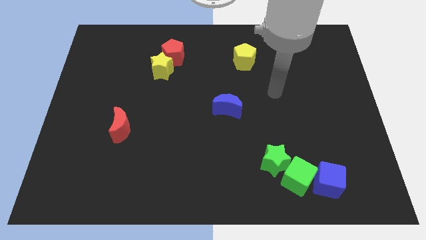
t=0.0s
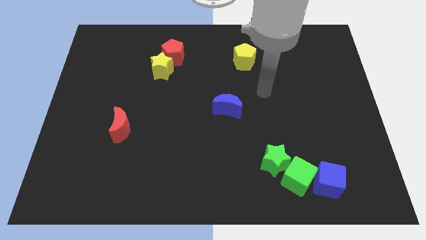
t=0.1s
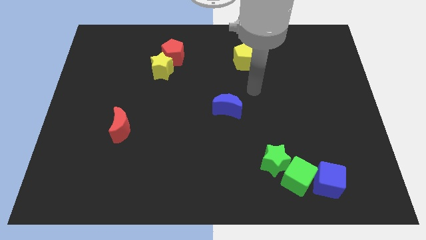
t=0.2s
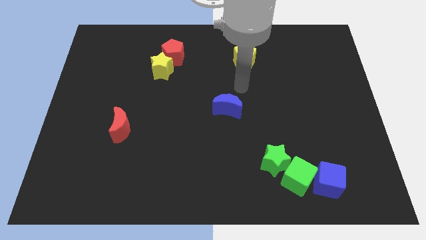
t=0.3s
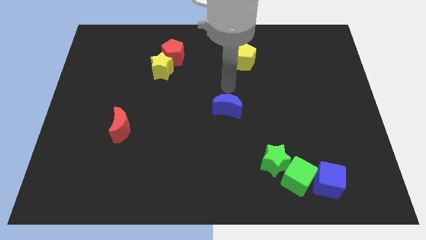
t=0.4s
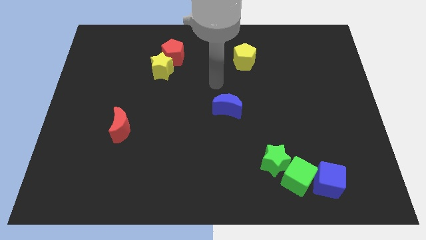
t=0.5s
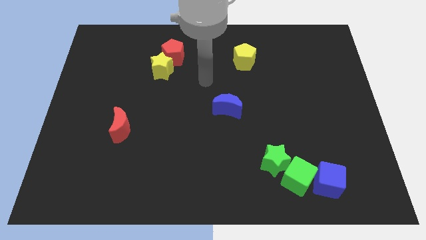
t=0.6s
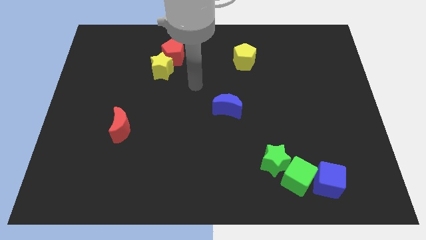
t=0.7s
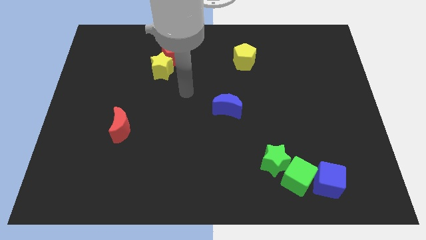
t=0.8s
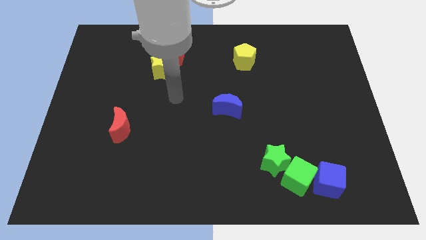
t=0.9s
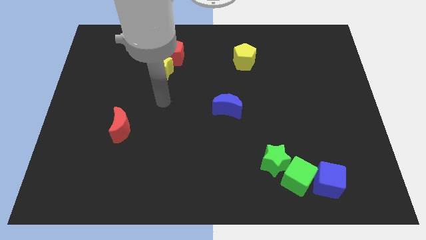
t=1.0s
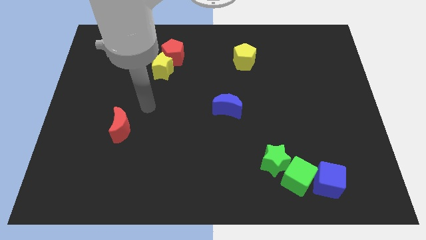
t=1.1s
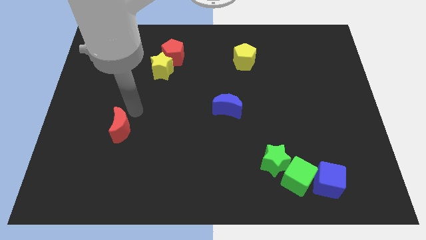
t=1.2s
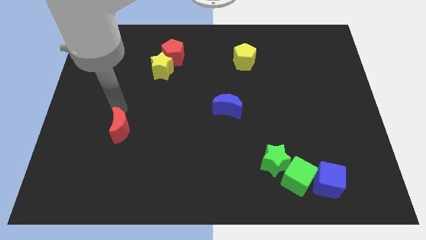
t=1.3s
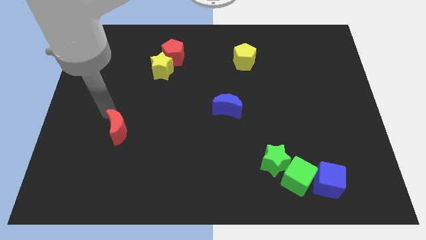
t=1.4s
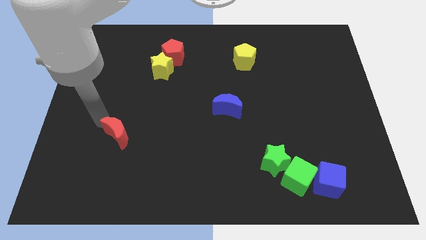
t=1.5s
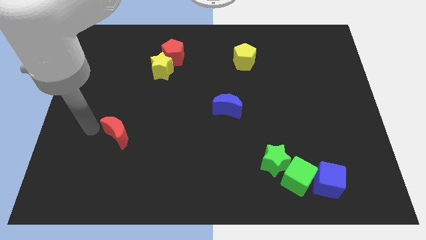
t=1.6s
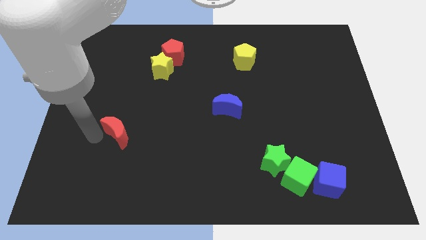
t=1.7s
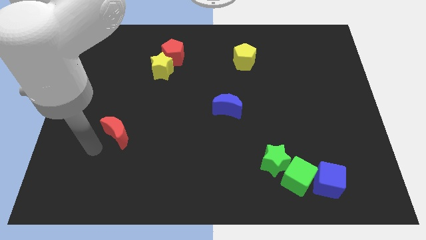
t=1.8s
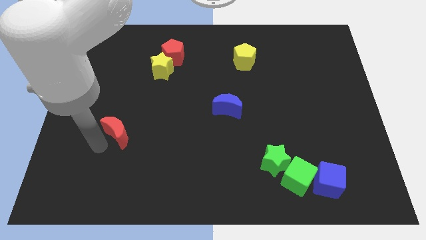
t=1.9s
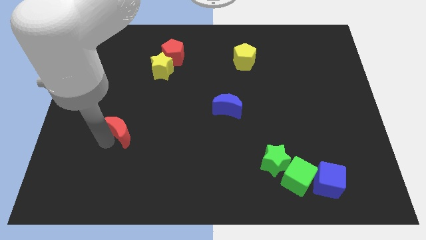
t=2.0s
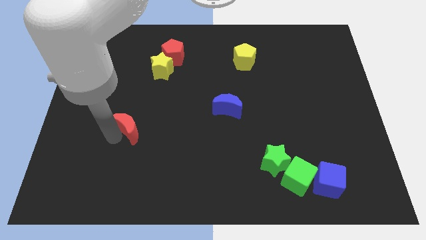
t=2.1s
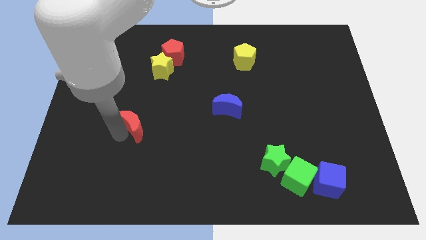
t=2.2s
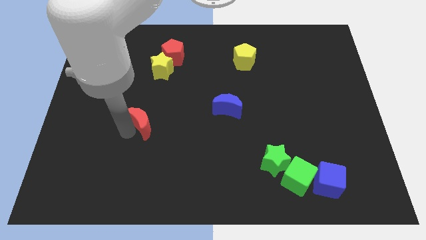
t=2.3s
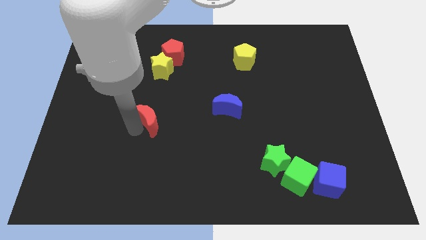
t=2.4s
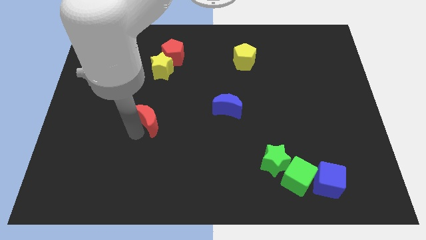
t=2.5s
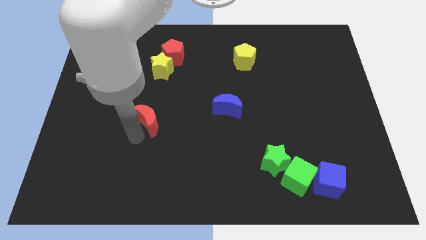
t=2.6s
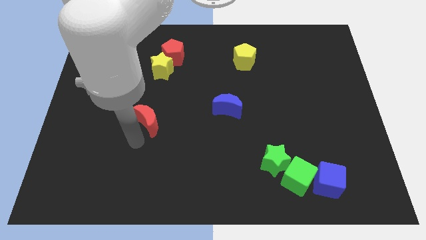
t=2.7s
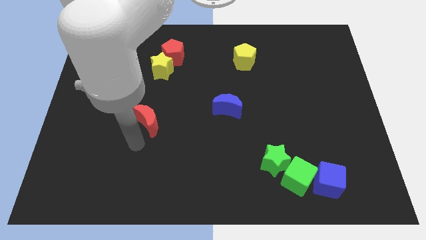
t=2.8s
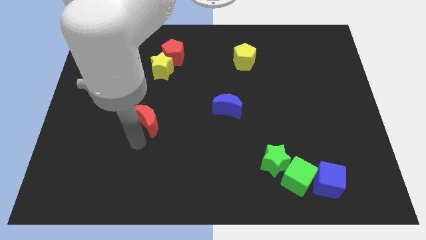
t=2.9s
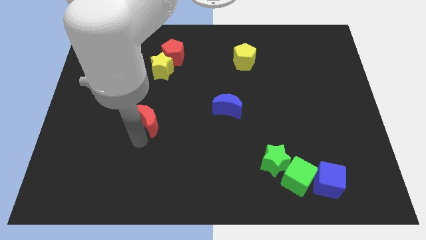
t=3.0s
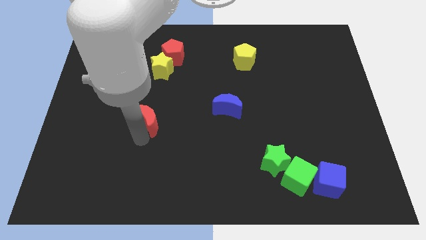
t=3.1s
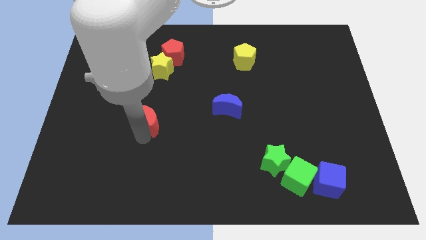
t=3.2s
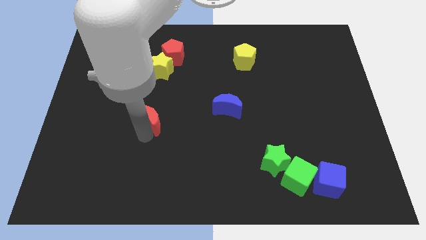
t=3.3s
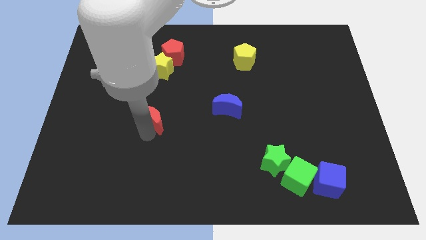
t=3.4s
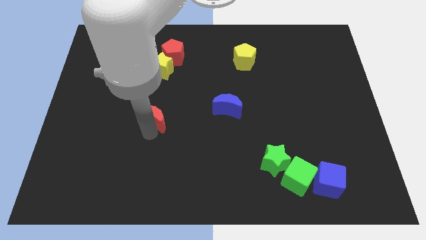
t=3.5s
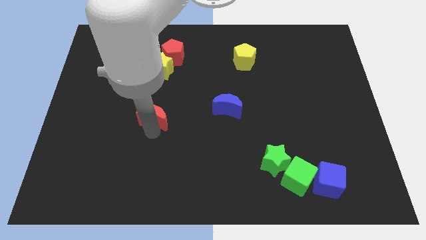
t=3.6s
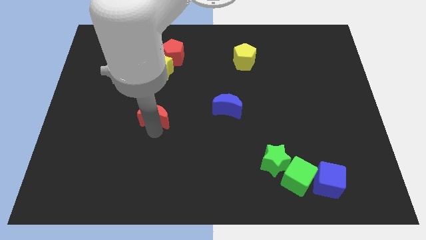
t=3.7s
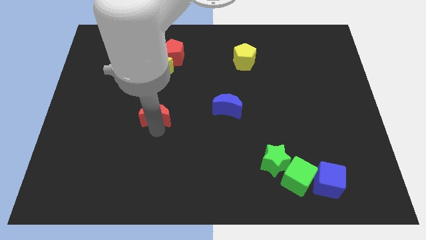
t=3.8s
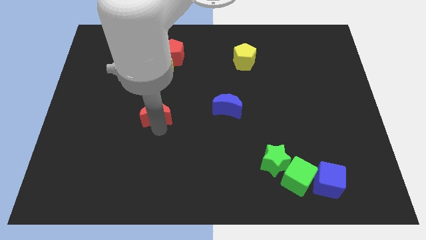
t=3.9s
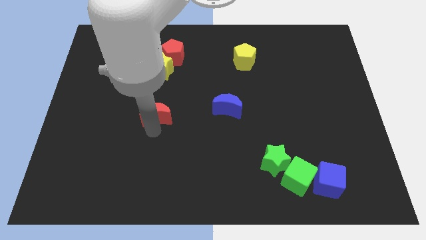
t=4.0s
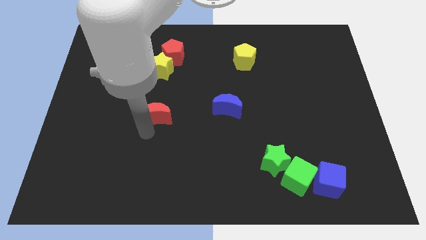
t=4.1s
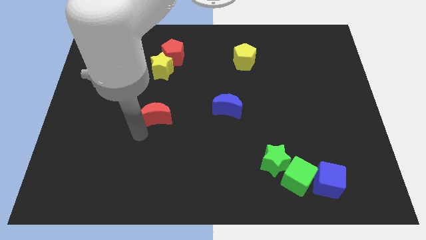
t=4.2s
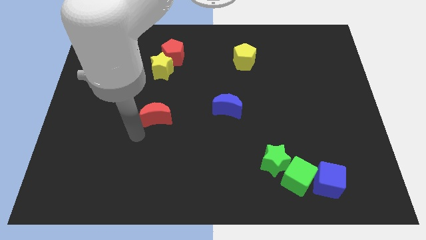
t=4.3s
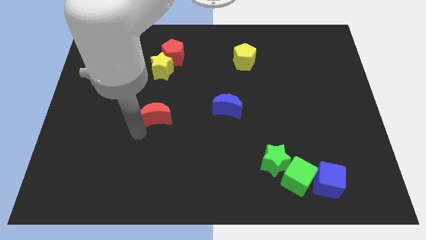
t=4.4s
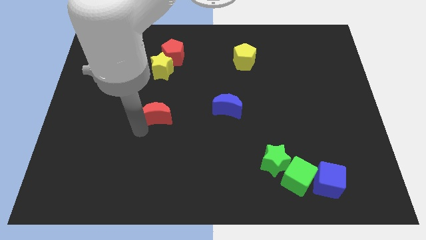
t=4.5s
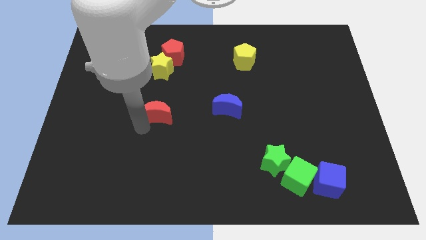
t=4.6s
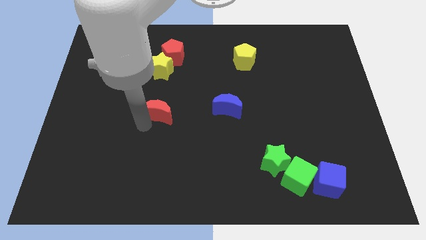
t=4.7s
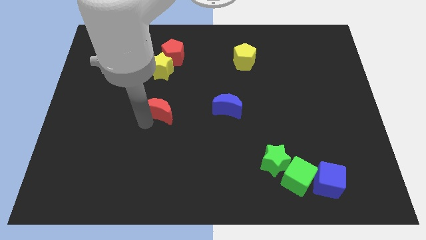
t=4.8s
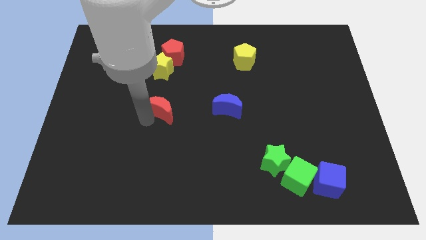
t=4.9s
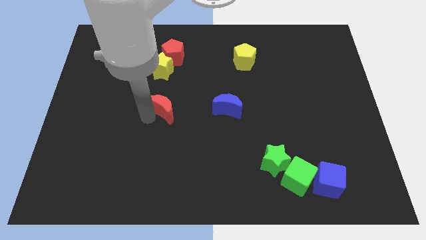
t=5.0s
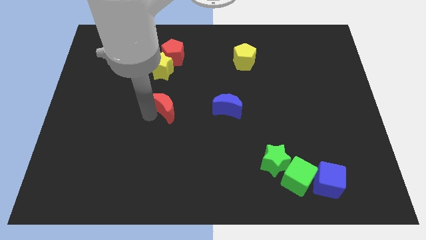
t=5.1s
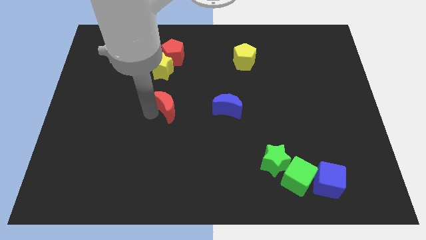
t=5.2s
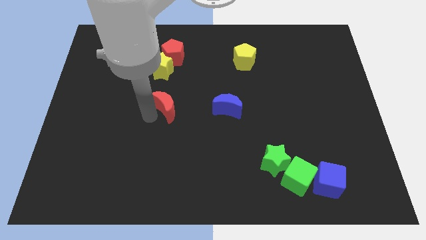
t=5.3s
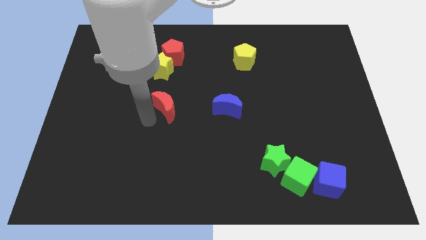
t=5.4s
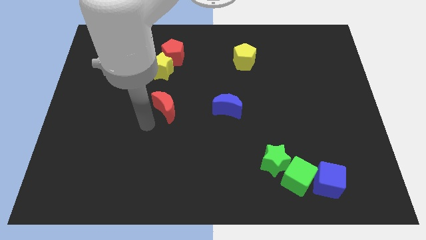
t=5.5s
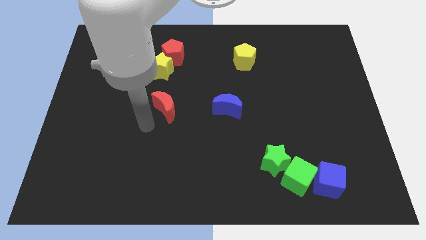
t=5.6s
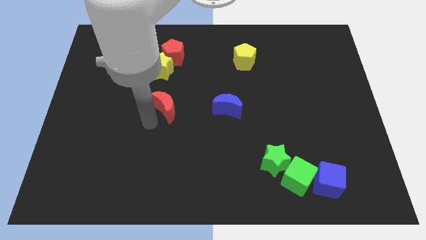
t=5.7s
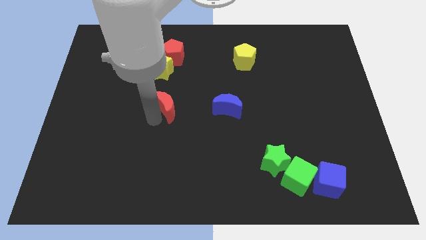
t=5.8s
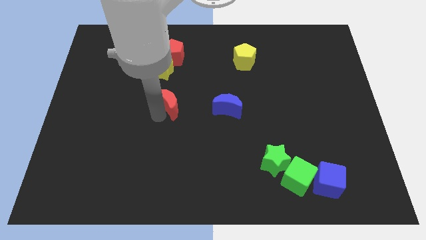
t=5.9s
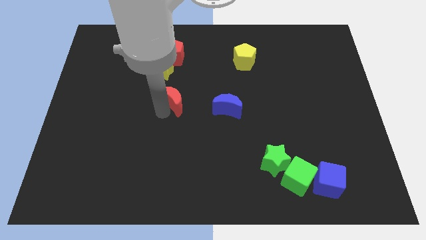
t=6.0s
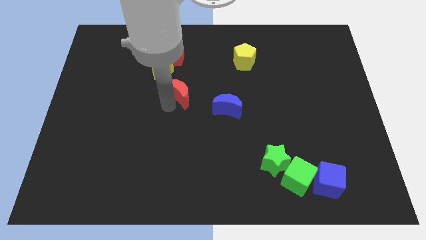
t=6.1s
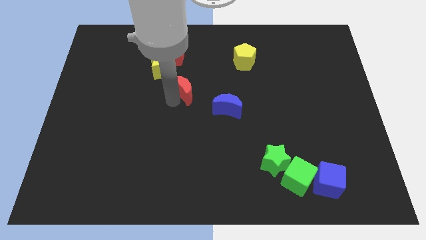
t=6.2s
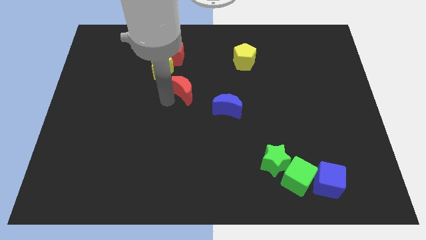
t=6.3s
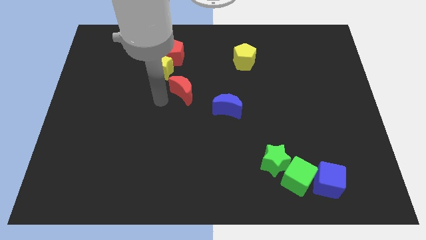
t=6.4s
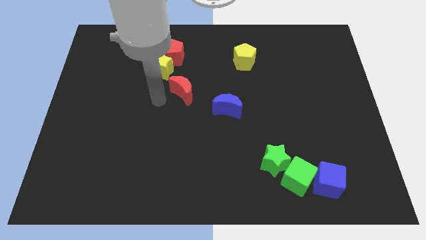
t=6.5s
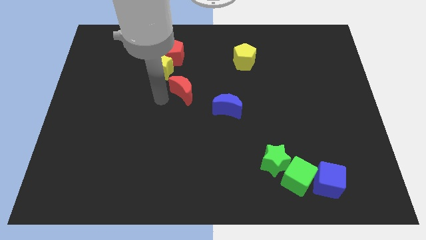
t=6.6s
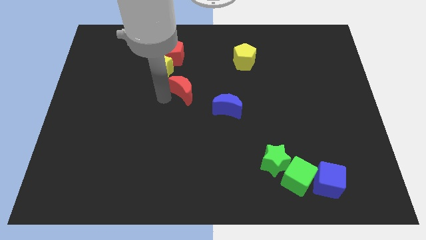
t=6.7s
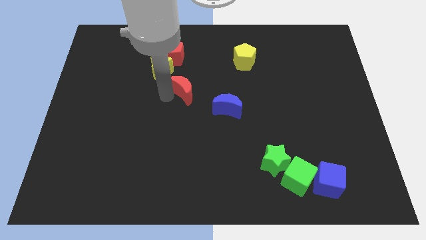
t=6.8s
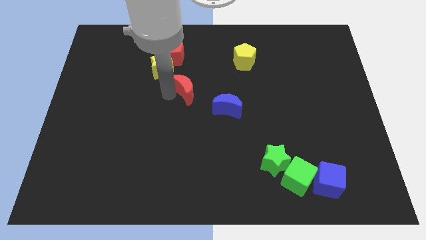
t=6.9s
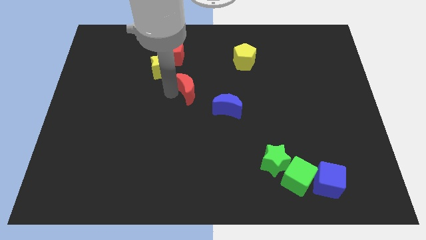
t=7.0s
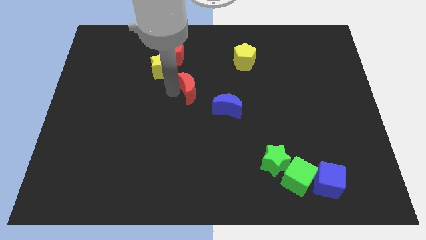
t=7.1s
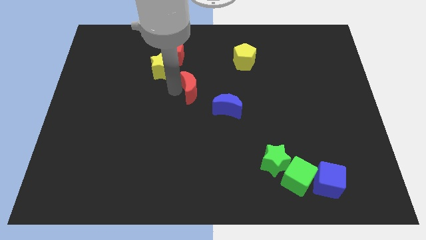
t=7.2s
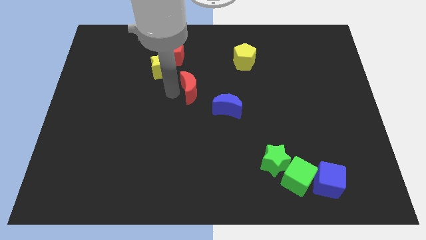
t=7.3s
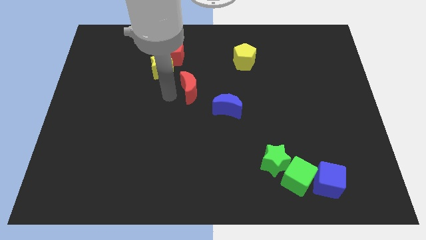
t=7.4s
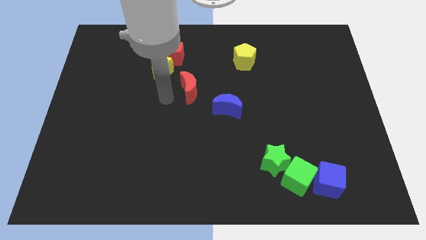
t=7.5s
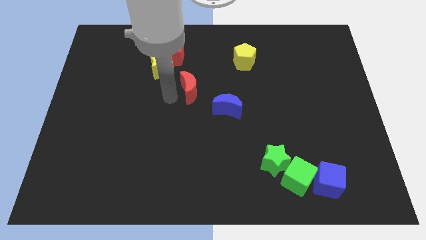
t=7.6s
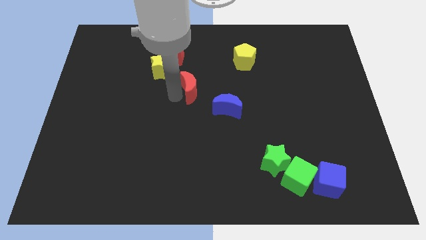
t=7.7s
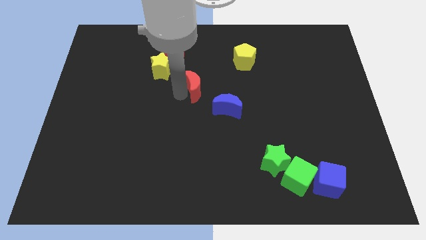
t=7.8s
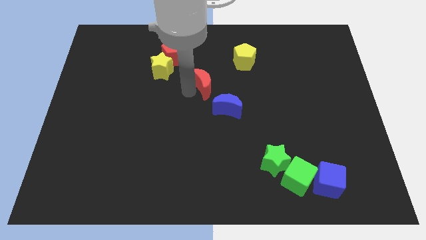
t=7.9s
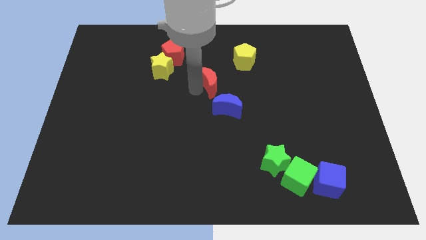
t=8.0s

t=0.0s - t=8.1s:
put the red moon to the top side of the blue moon
